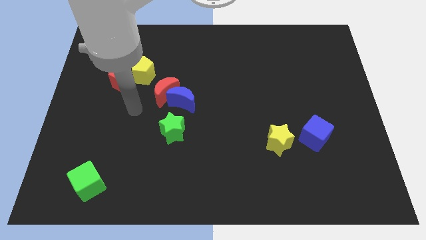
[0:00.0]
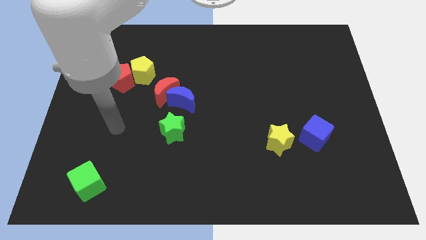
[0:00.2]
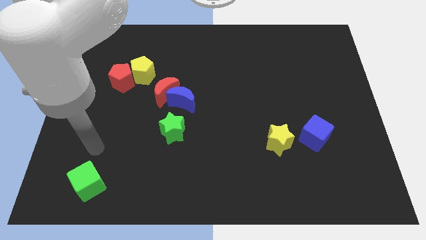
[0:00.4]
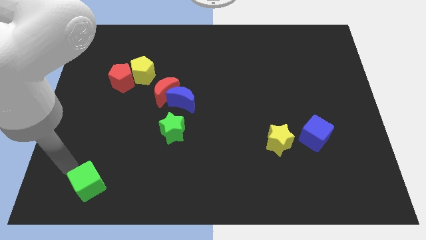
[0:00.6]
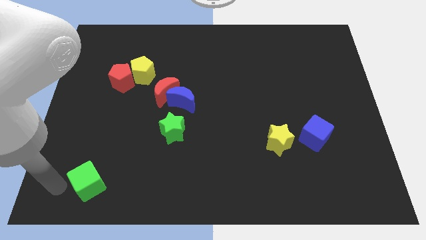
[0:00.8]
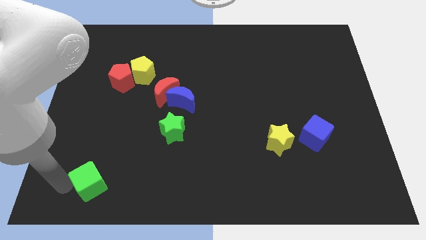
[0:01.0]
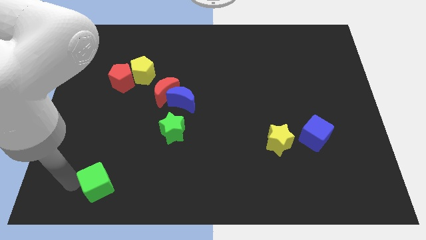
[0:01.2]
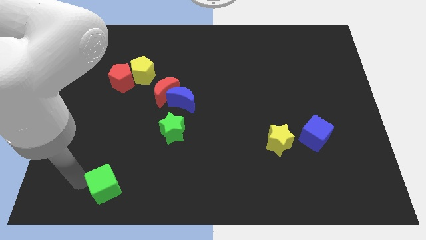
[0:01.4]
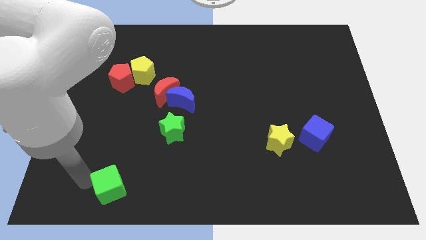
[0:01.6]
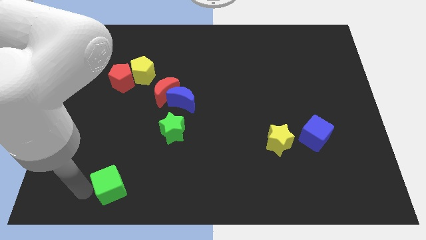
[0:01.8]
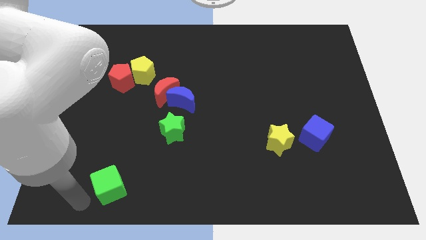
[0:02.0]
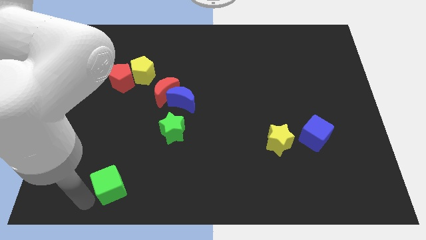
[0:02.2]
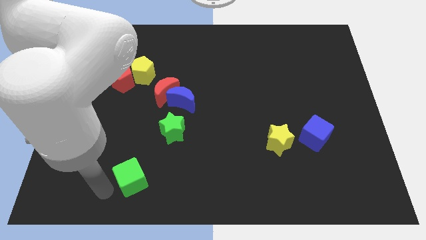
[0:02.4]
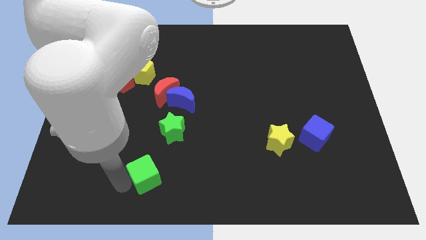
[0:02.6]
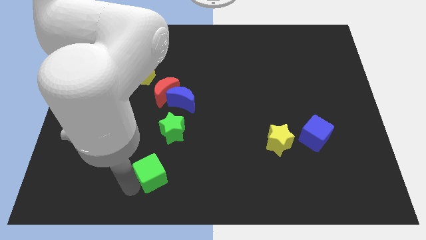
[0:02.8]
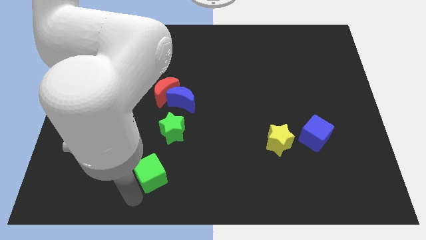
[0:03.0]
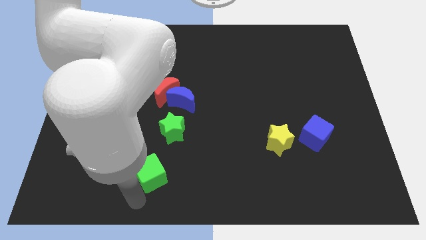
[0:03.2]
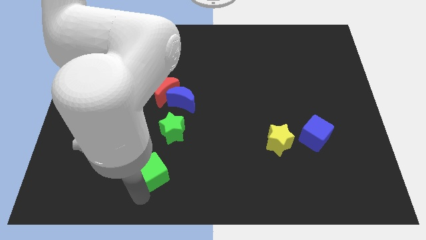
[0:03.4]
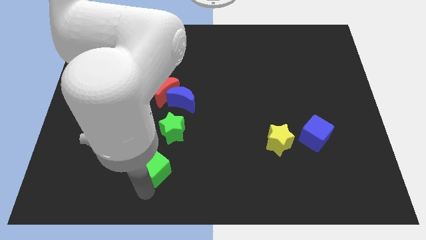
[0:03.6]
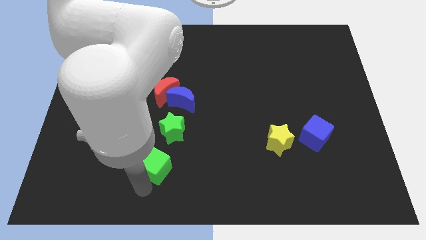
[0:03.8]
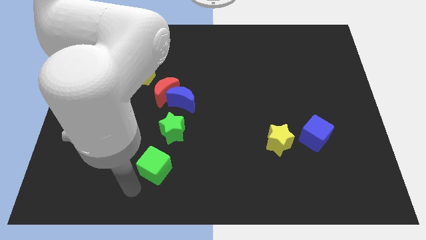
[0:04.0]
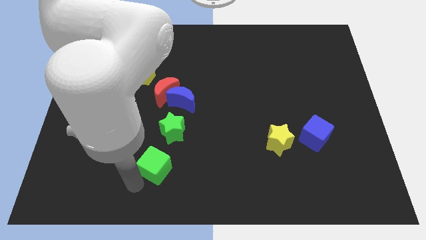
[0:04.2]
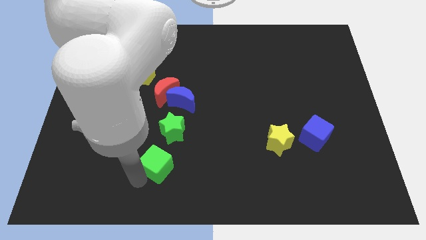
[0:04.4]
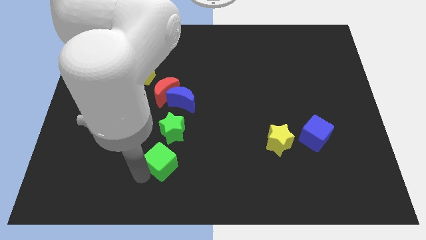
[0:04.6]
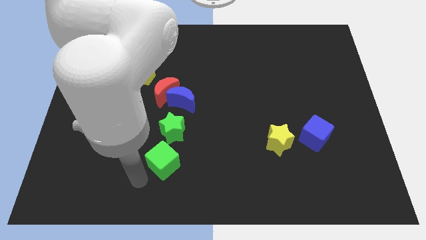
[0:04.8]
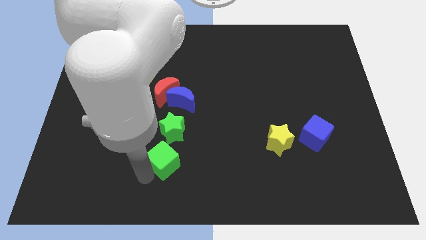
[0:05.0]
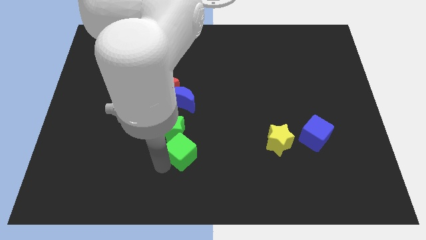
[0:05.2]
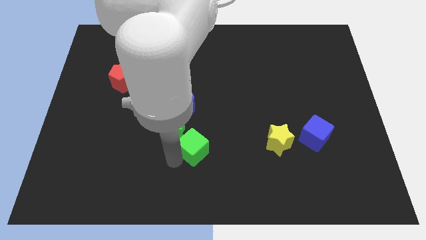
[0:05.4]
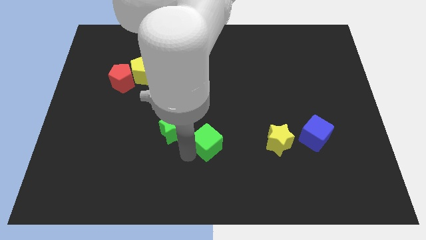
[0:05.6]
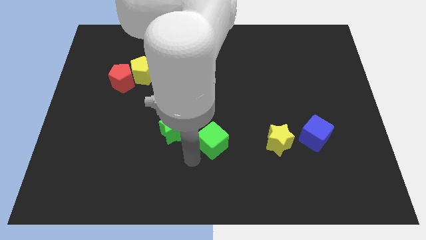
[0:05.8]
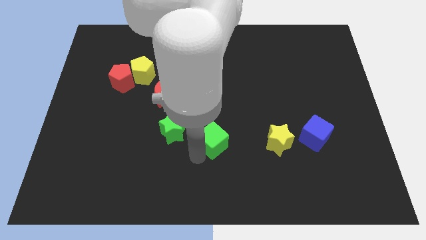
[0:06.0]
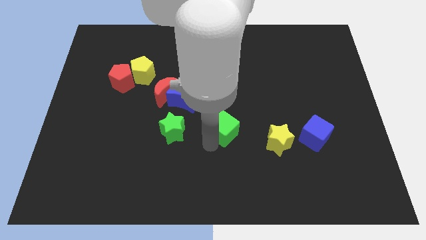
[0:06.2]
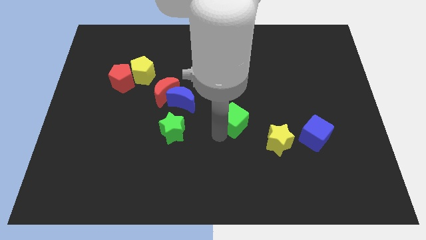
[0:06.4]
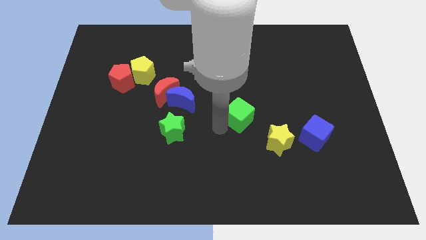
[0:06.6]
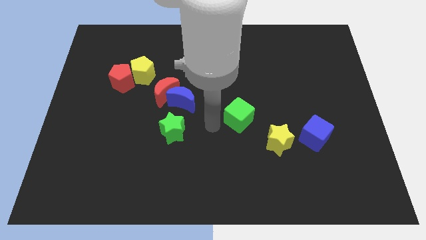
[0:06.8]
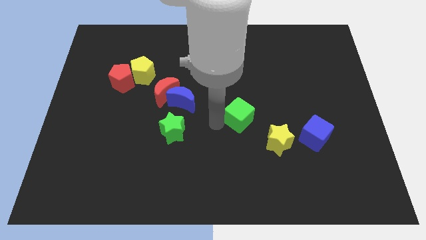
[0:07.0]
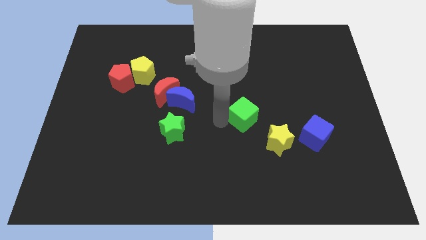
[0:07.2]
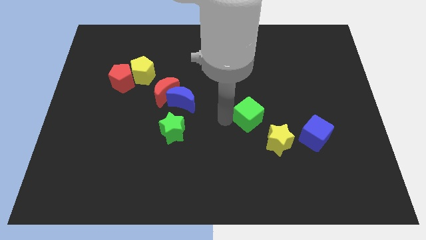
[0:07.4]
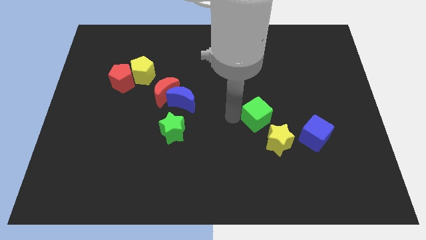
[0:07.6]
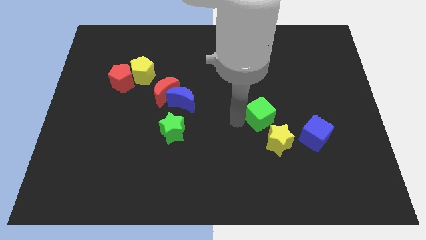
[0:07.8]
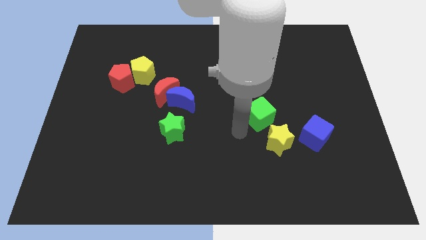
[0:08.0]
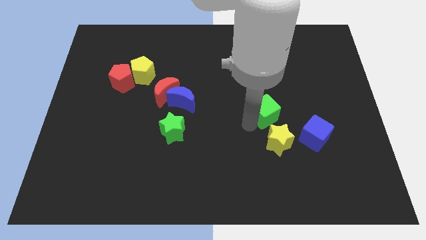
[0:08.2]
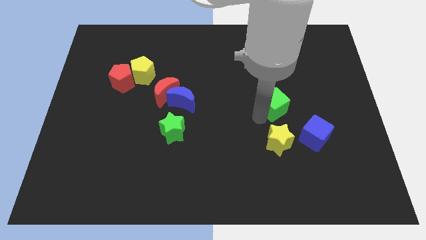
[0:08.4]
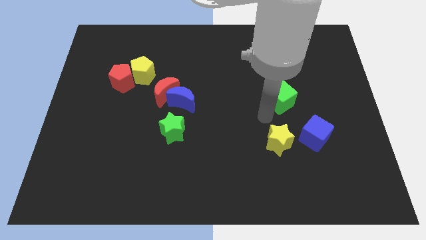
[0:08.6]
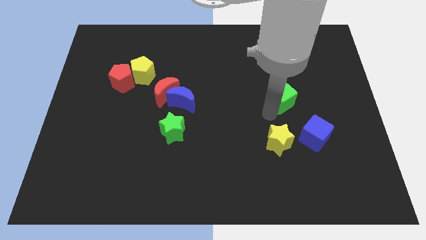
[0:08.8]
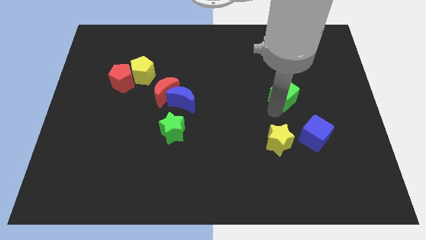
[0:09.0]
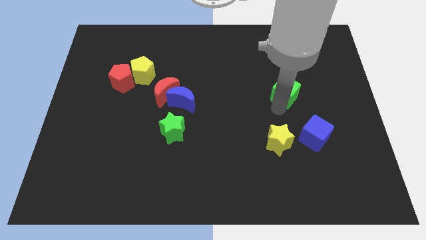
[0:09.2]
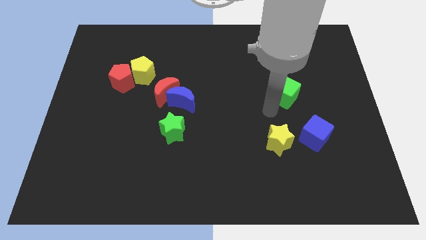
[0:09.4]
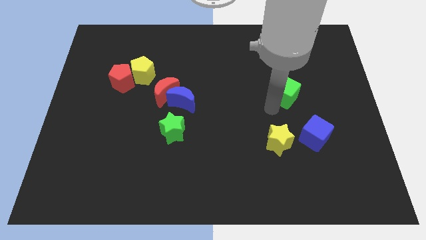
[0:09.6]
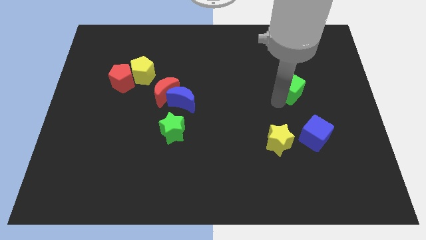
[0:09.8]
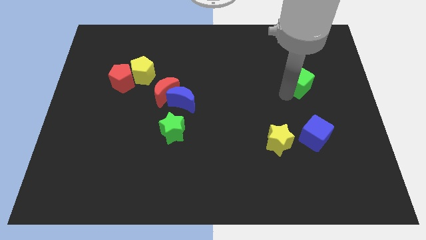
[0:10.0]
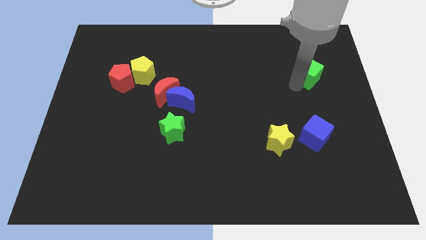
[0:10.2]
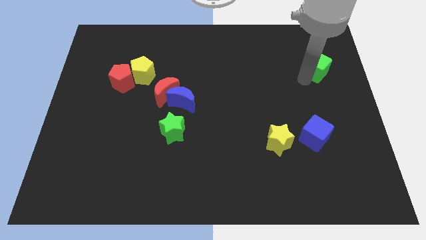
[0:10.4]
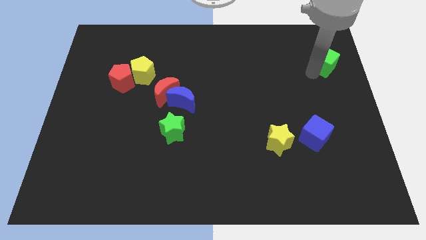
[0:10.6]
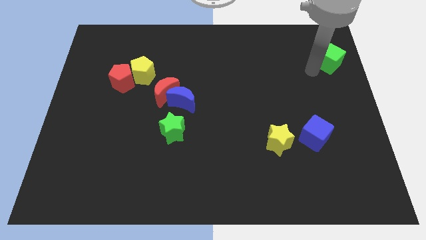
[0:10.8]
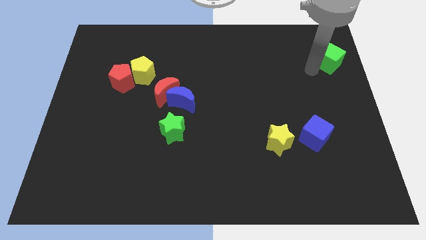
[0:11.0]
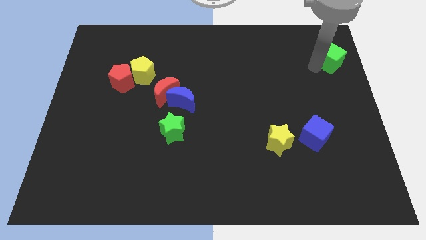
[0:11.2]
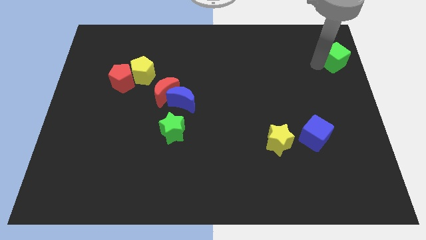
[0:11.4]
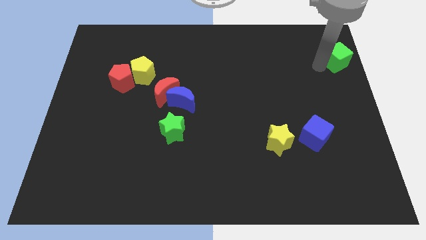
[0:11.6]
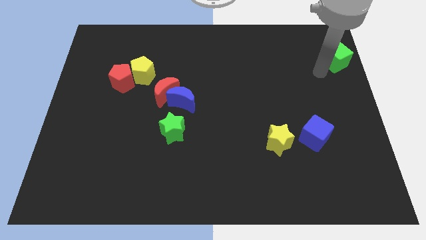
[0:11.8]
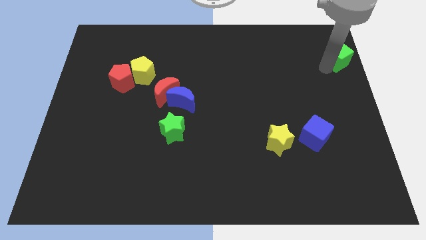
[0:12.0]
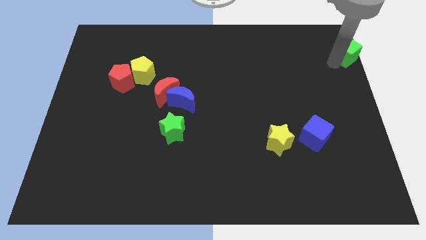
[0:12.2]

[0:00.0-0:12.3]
move the green cube to the upper right corner
